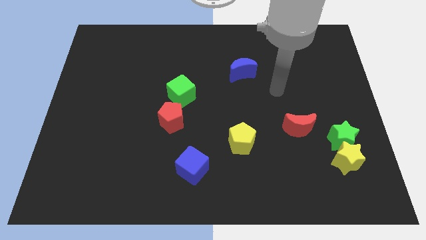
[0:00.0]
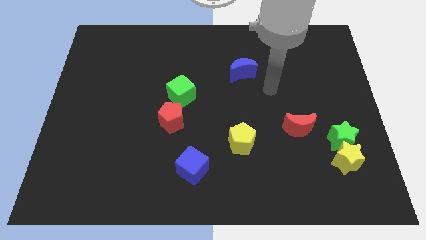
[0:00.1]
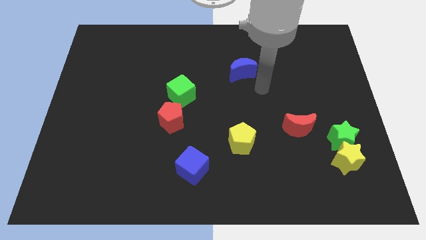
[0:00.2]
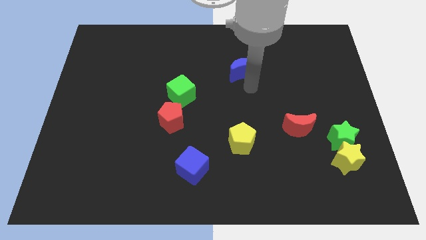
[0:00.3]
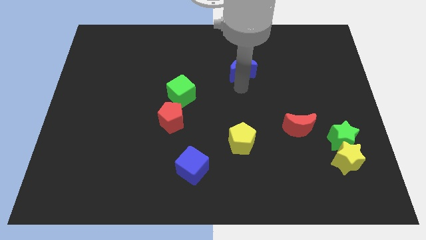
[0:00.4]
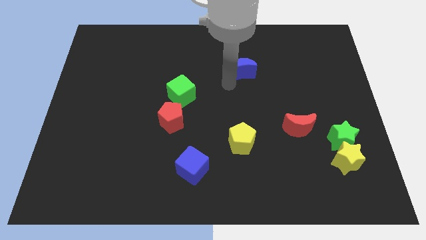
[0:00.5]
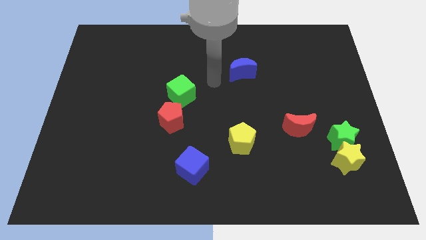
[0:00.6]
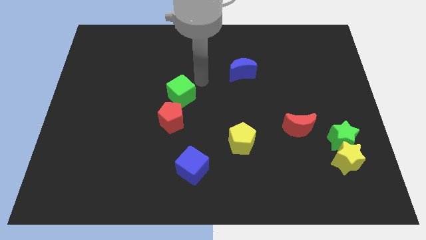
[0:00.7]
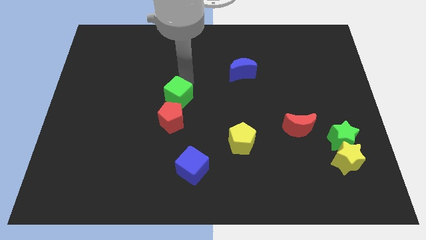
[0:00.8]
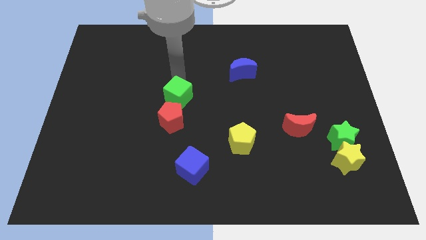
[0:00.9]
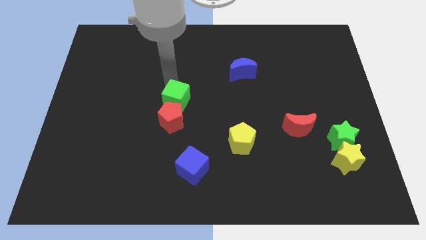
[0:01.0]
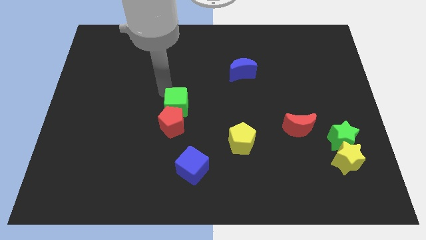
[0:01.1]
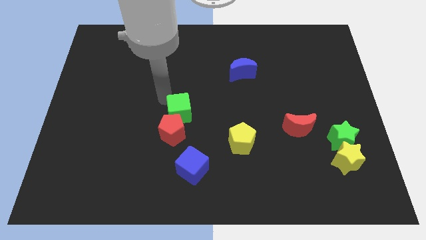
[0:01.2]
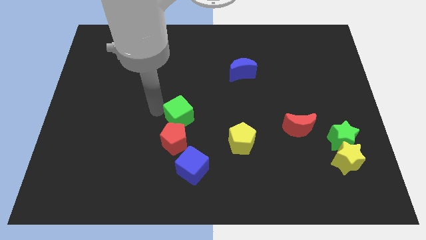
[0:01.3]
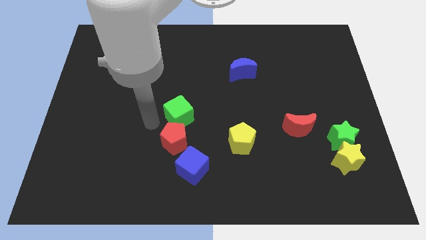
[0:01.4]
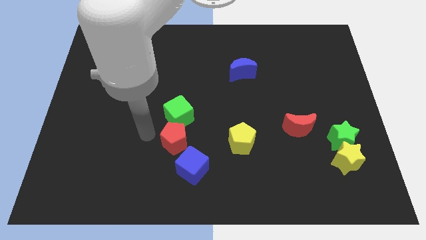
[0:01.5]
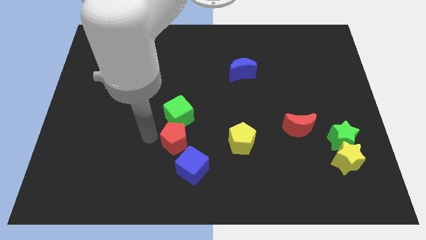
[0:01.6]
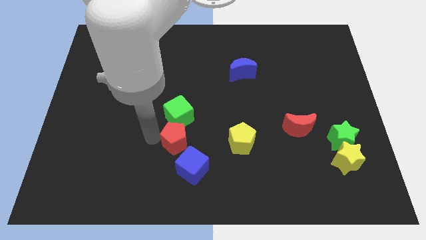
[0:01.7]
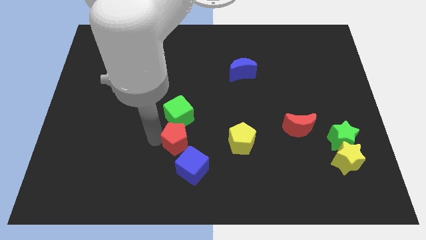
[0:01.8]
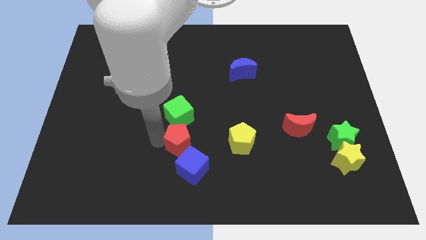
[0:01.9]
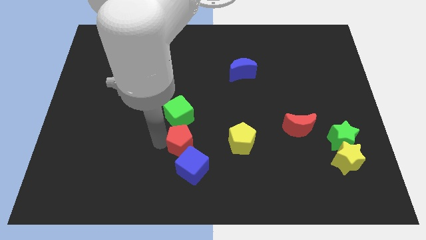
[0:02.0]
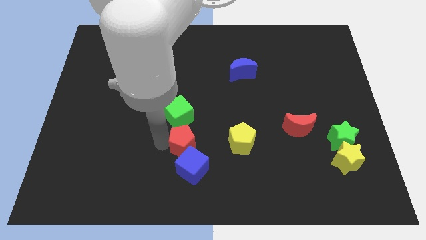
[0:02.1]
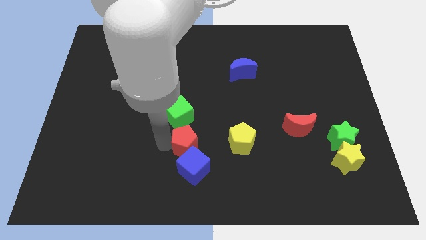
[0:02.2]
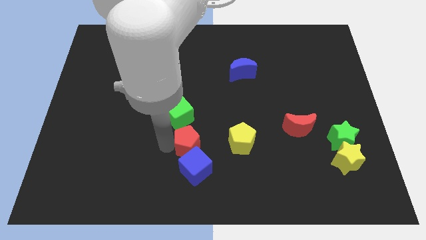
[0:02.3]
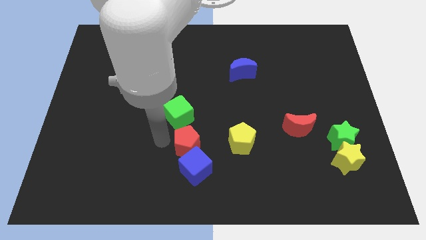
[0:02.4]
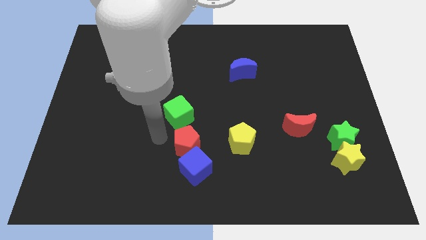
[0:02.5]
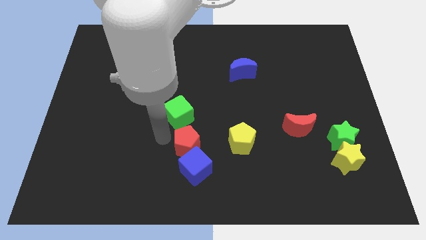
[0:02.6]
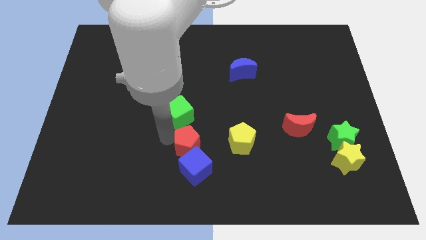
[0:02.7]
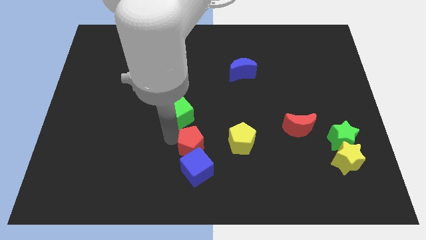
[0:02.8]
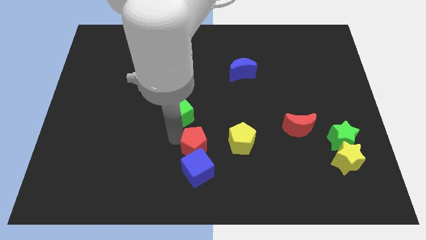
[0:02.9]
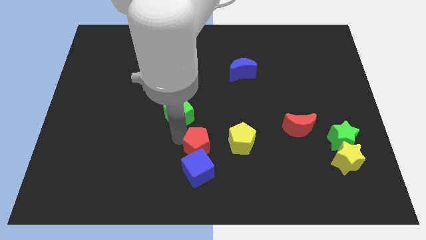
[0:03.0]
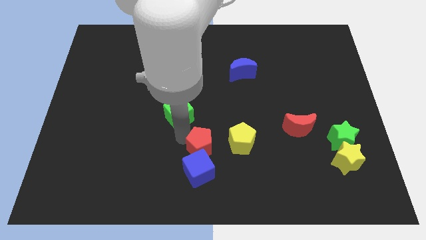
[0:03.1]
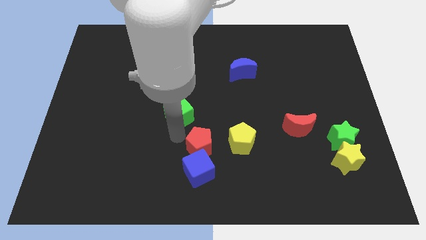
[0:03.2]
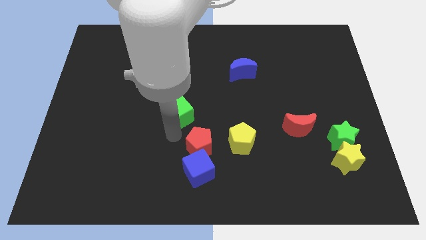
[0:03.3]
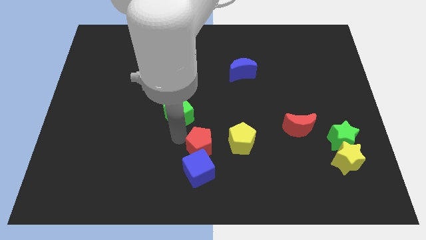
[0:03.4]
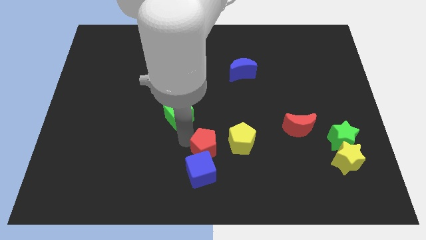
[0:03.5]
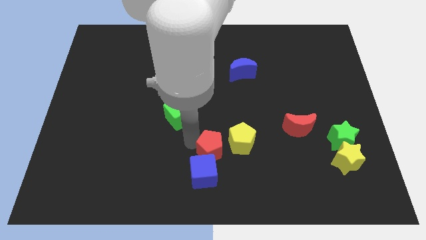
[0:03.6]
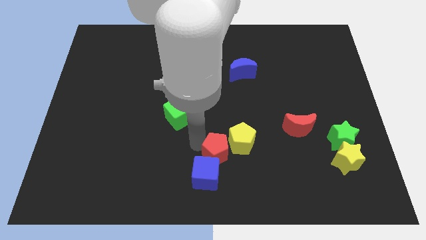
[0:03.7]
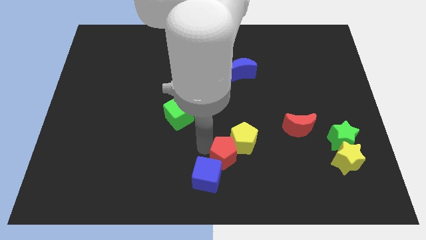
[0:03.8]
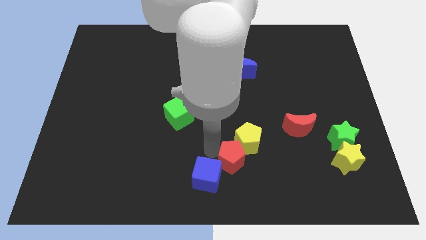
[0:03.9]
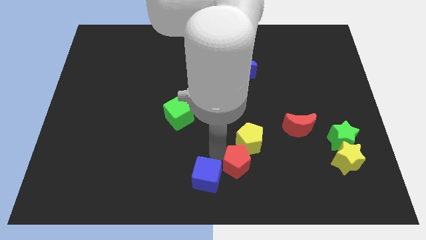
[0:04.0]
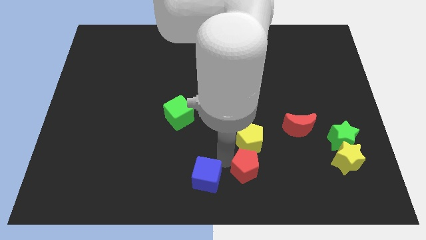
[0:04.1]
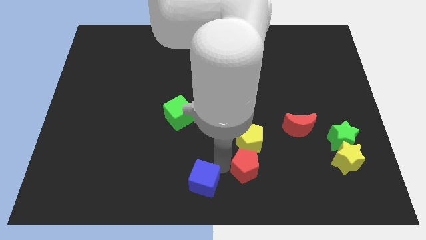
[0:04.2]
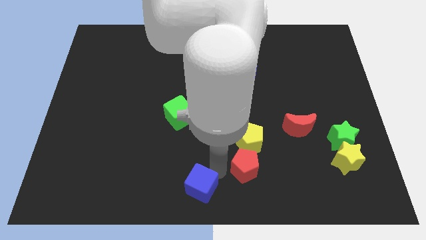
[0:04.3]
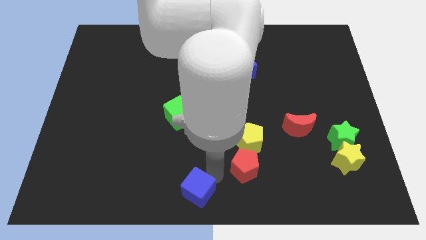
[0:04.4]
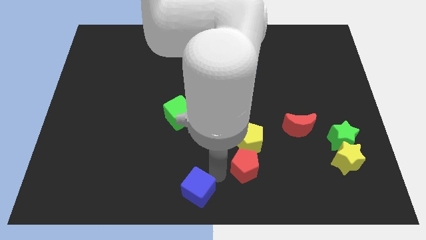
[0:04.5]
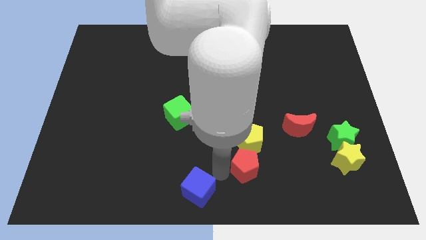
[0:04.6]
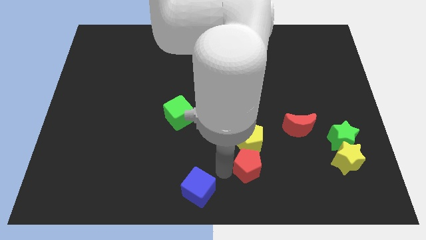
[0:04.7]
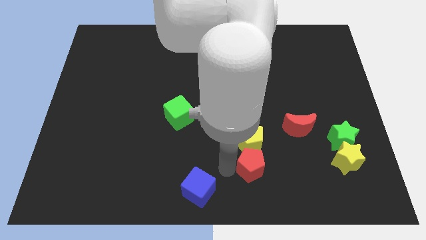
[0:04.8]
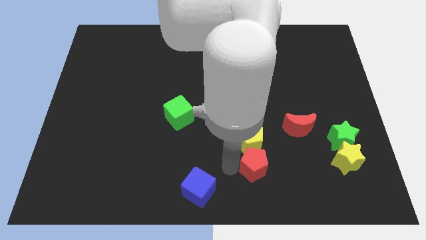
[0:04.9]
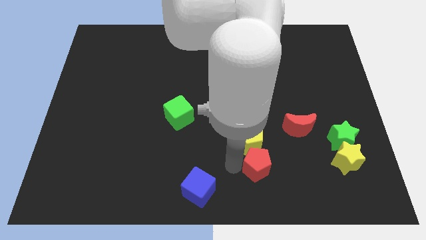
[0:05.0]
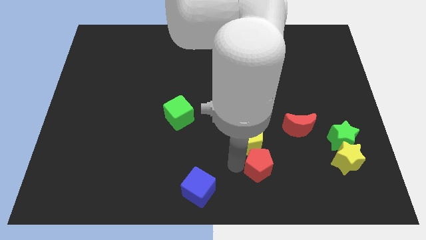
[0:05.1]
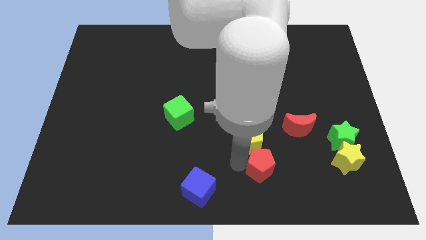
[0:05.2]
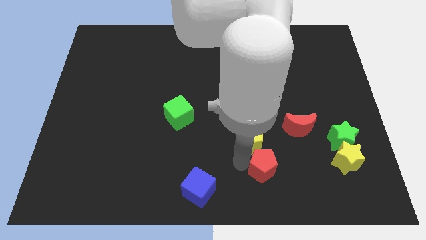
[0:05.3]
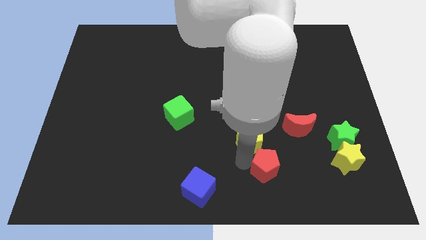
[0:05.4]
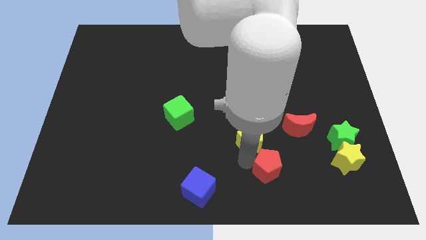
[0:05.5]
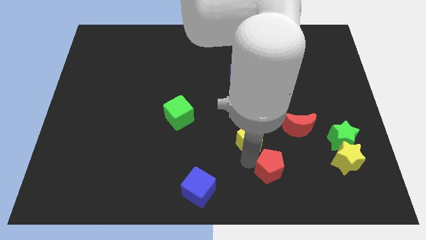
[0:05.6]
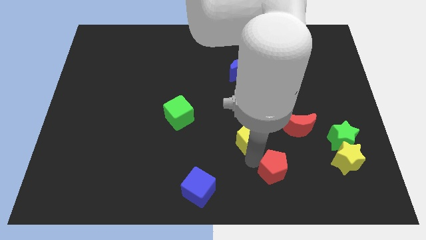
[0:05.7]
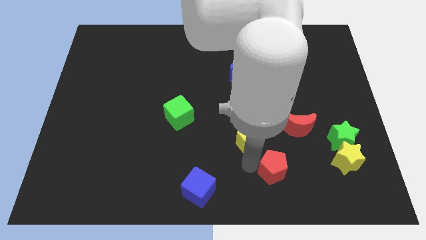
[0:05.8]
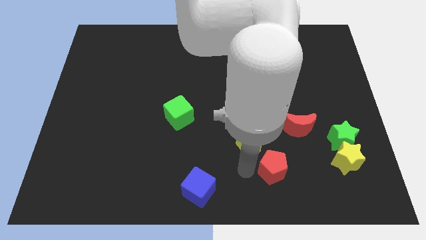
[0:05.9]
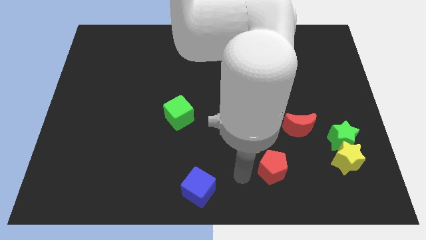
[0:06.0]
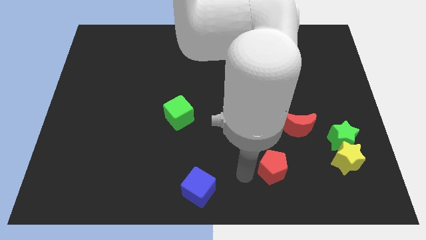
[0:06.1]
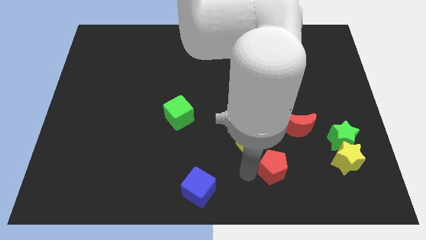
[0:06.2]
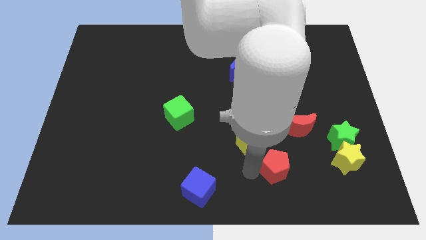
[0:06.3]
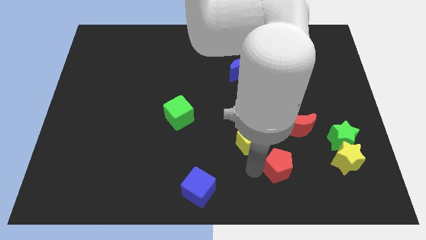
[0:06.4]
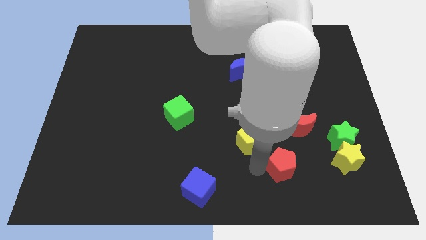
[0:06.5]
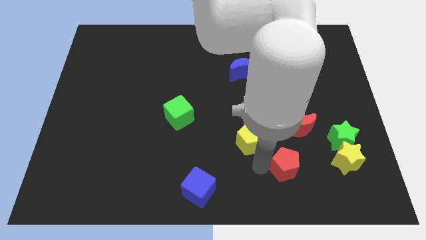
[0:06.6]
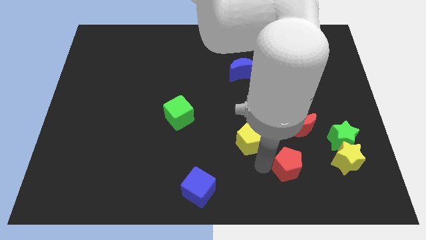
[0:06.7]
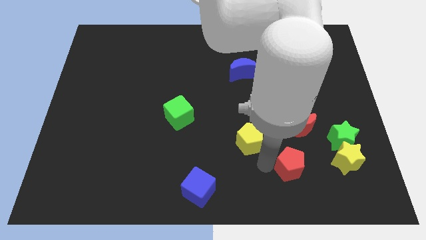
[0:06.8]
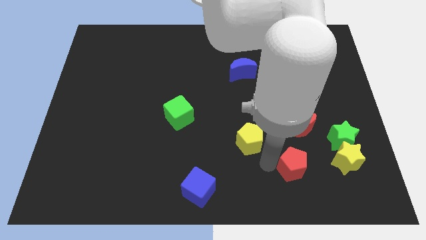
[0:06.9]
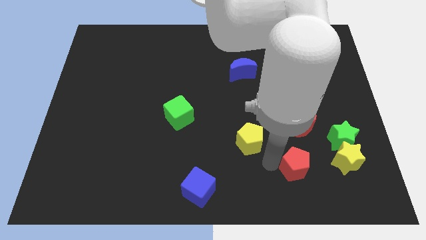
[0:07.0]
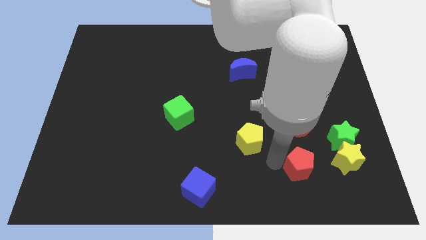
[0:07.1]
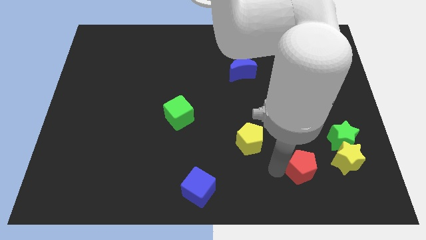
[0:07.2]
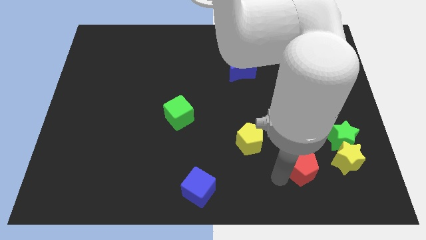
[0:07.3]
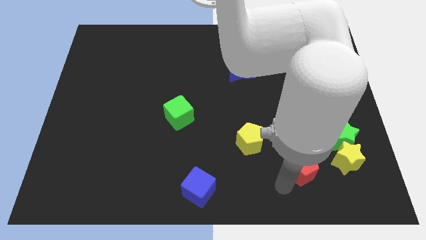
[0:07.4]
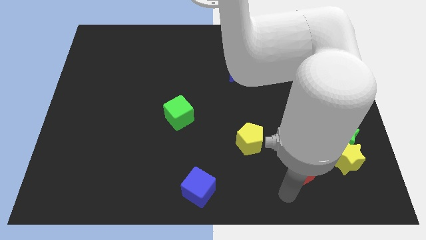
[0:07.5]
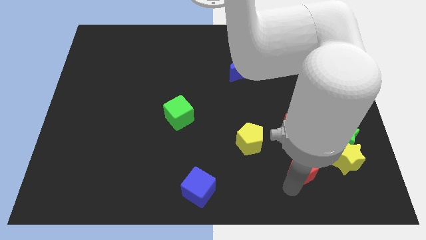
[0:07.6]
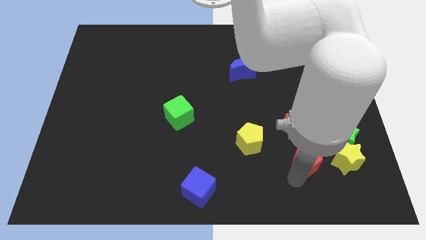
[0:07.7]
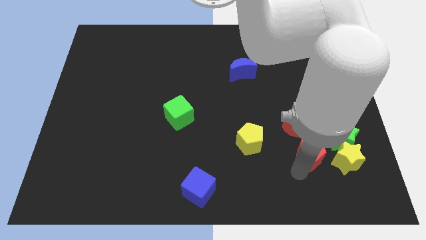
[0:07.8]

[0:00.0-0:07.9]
move the red pentagon diagonally up and to the left of the yellow star
